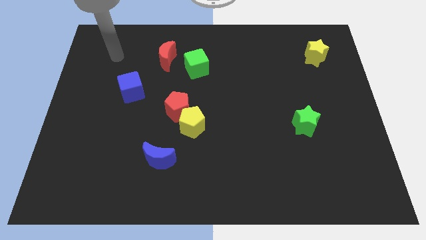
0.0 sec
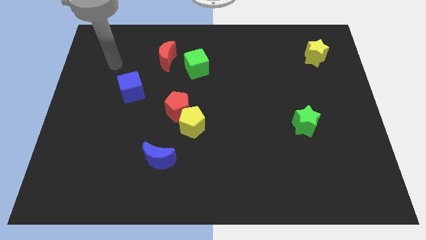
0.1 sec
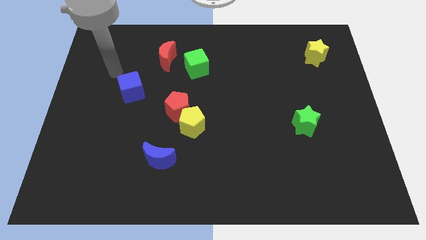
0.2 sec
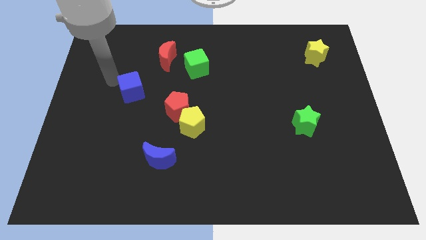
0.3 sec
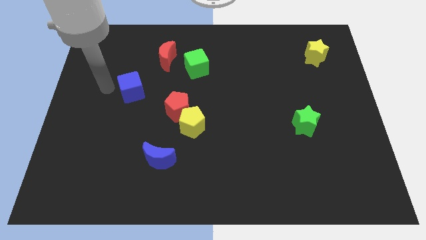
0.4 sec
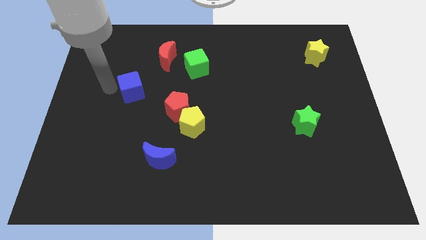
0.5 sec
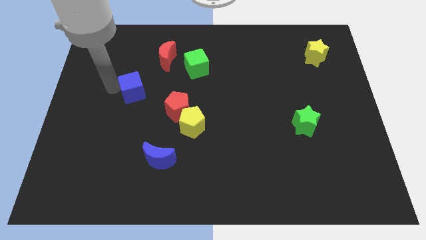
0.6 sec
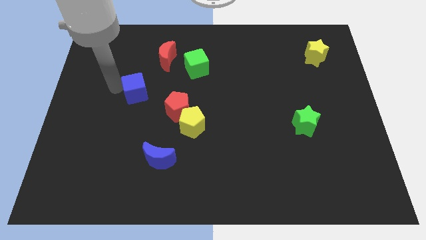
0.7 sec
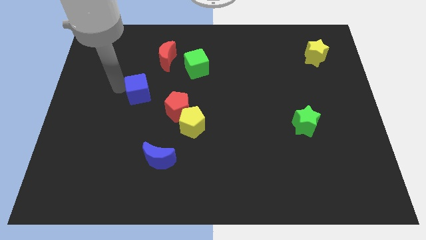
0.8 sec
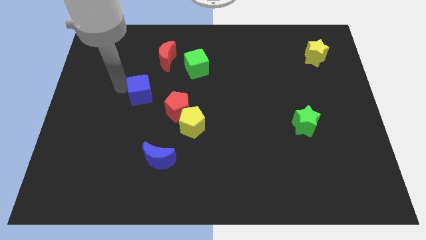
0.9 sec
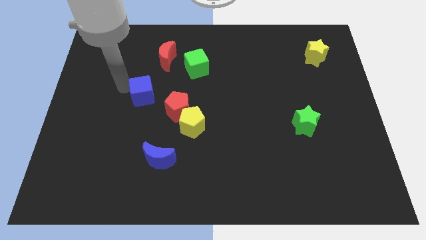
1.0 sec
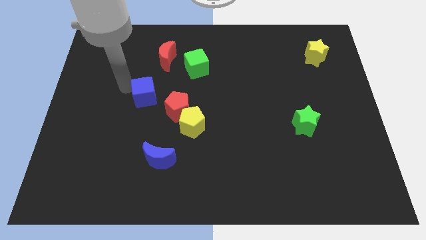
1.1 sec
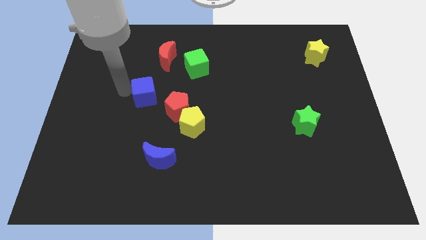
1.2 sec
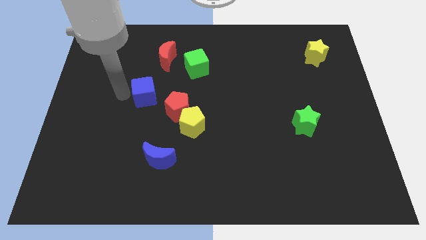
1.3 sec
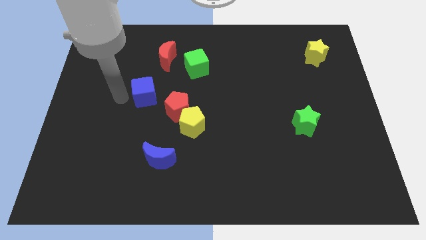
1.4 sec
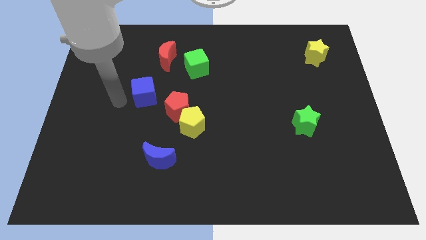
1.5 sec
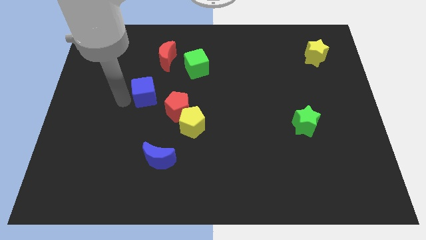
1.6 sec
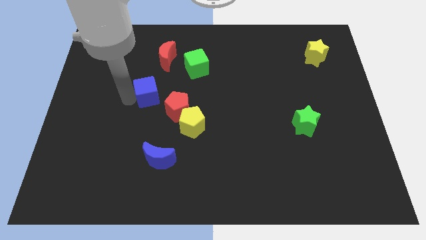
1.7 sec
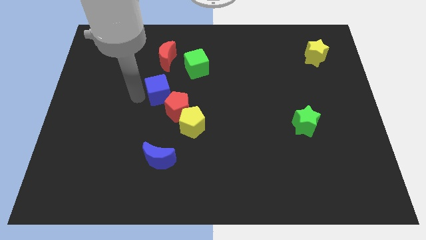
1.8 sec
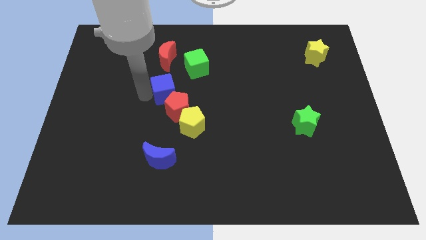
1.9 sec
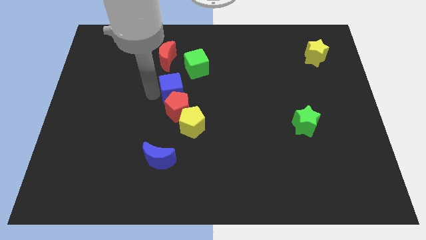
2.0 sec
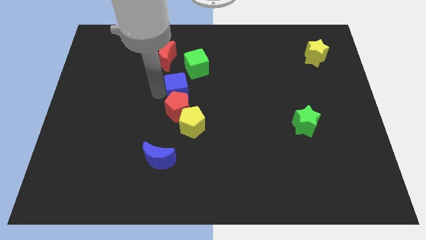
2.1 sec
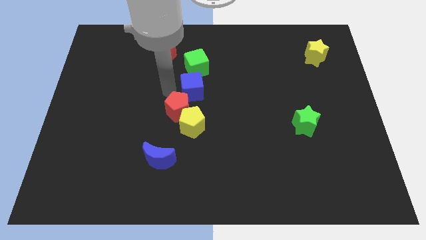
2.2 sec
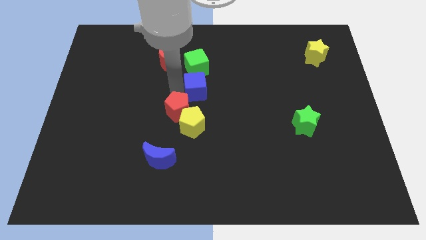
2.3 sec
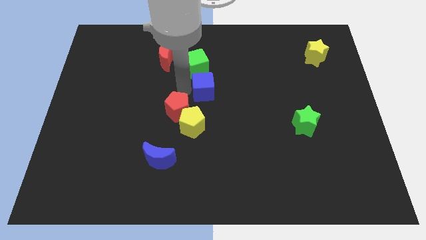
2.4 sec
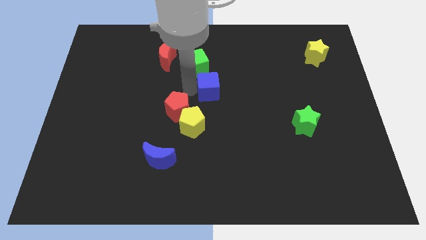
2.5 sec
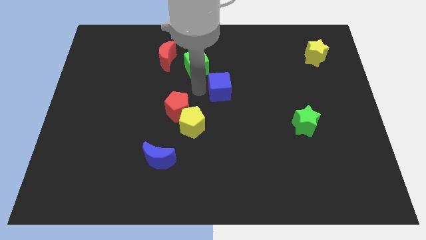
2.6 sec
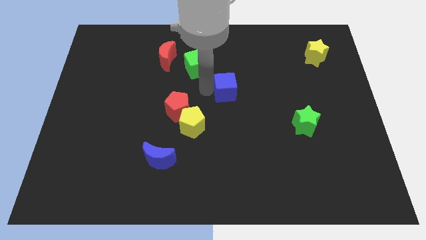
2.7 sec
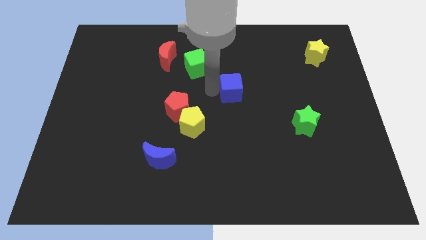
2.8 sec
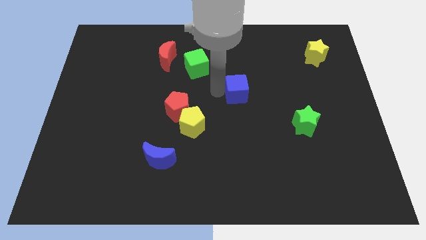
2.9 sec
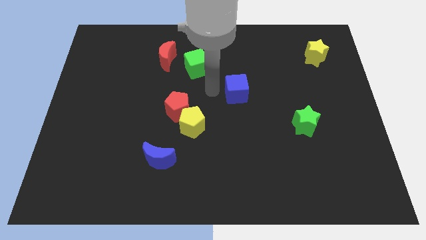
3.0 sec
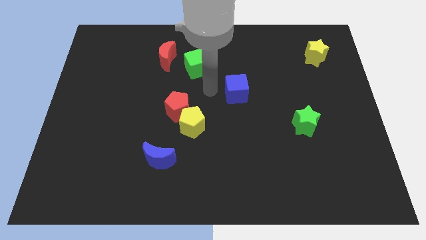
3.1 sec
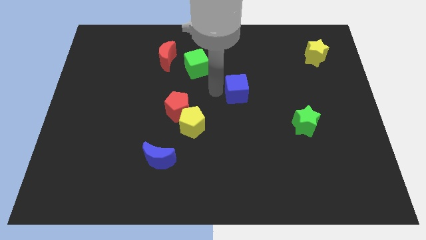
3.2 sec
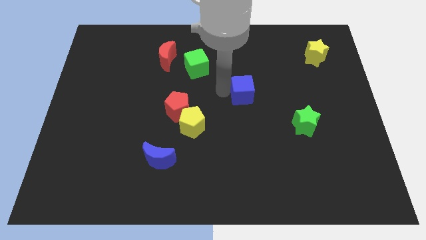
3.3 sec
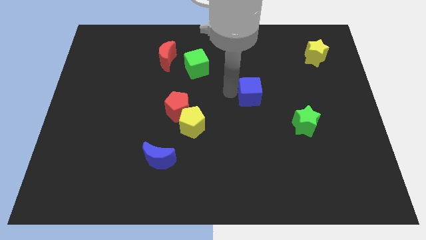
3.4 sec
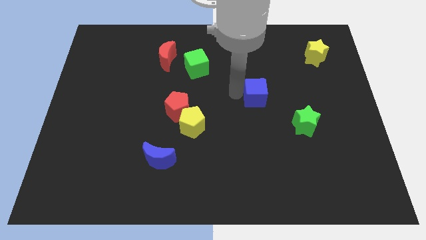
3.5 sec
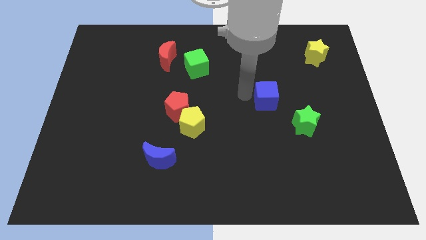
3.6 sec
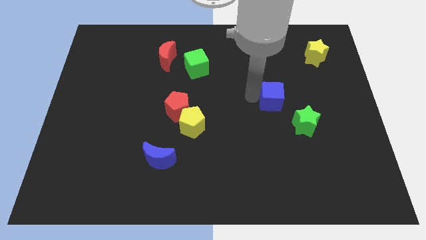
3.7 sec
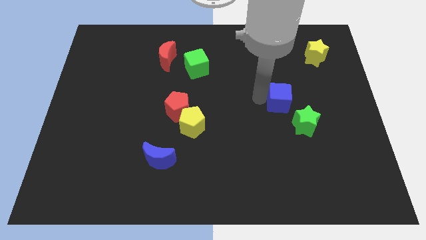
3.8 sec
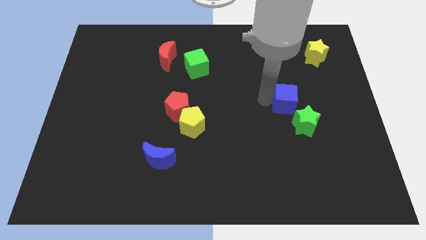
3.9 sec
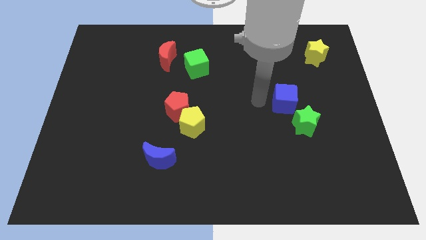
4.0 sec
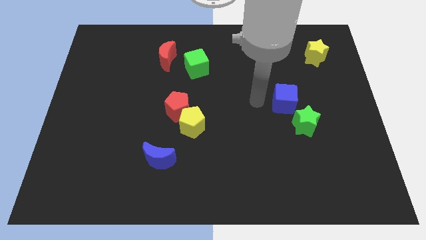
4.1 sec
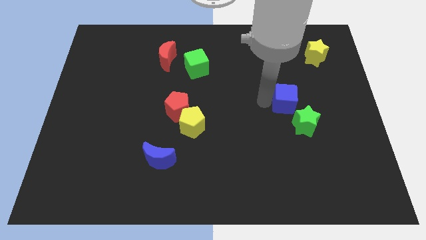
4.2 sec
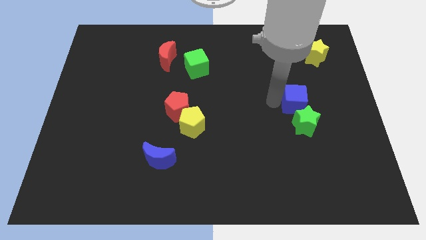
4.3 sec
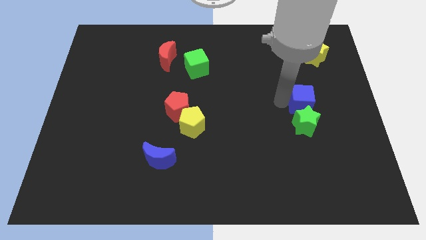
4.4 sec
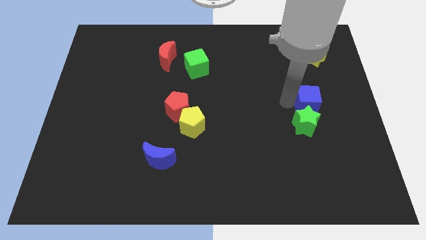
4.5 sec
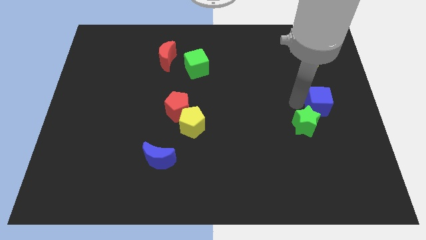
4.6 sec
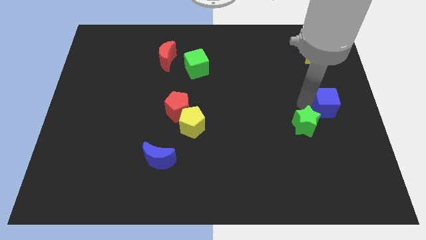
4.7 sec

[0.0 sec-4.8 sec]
push the blue cube to the right side

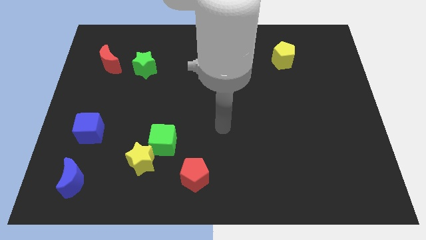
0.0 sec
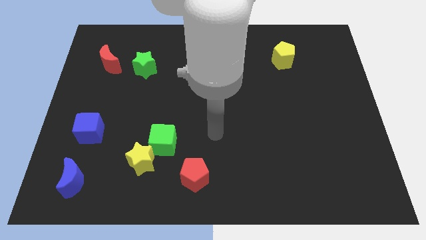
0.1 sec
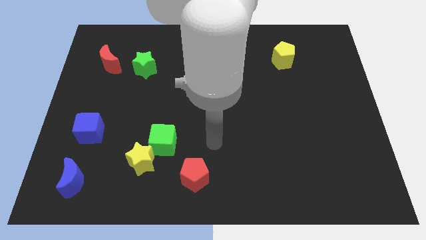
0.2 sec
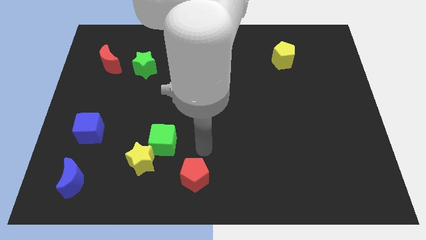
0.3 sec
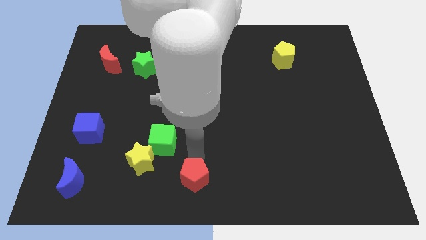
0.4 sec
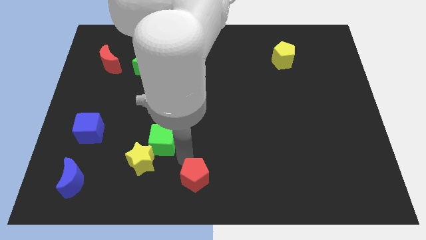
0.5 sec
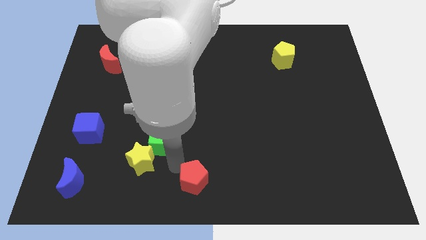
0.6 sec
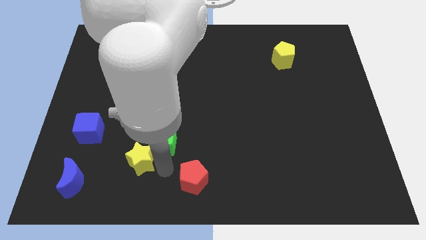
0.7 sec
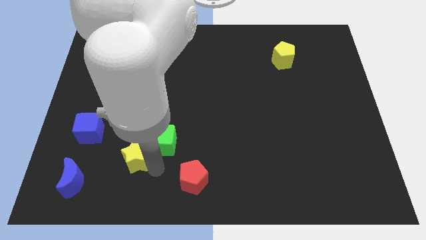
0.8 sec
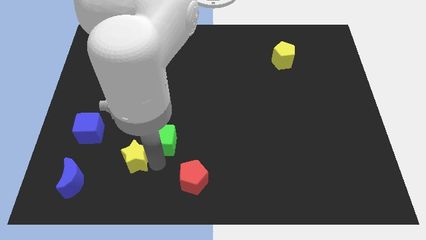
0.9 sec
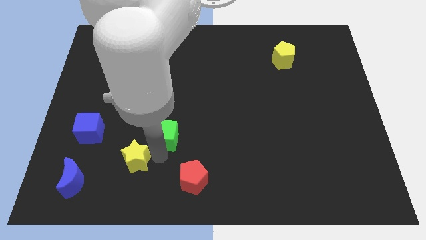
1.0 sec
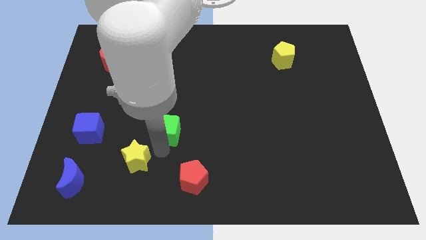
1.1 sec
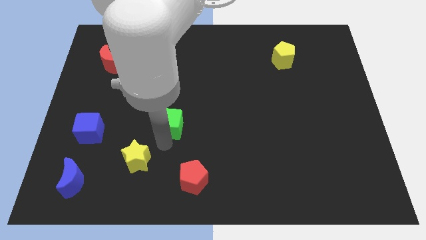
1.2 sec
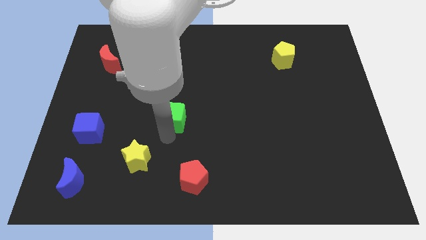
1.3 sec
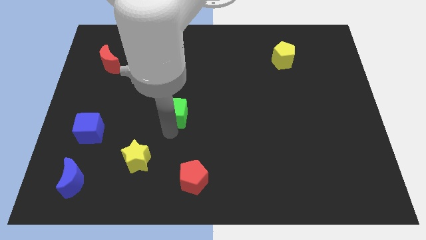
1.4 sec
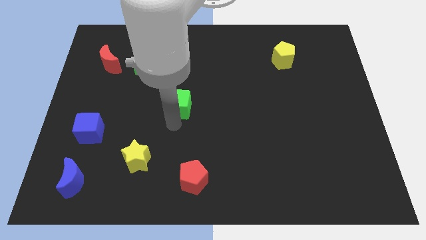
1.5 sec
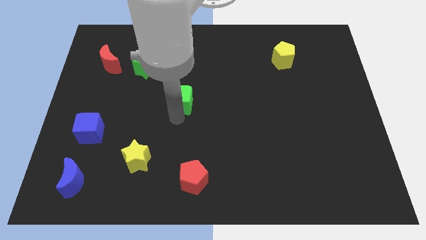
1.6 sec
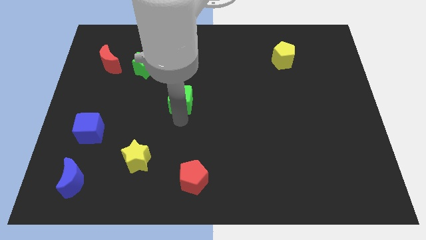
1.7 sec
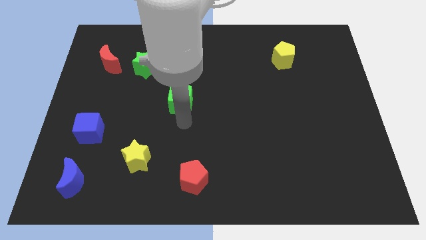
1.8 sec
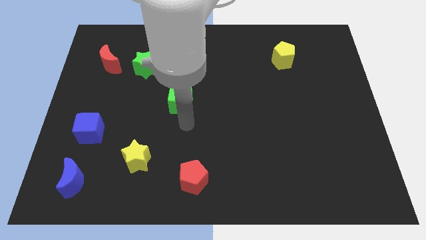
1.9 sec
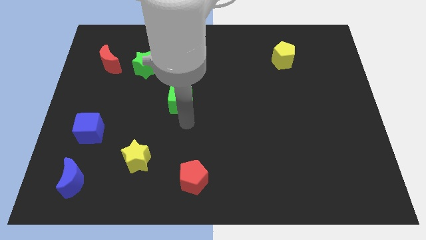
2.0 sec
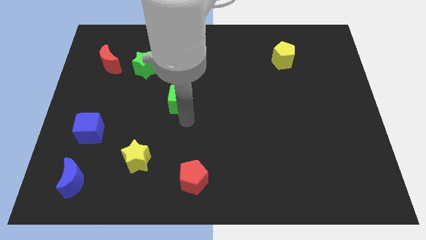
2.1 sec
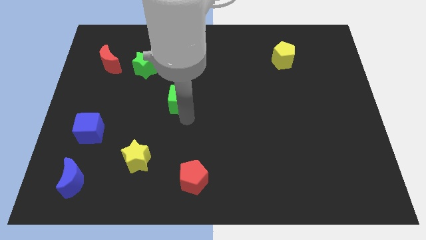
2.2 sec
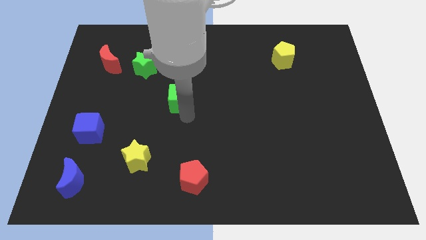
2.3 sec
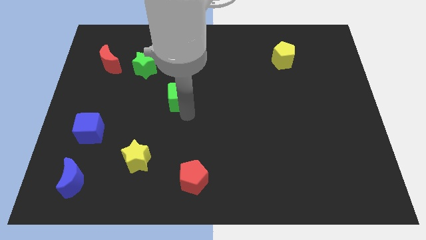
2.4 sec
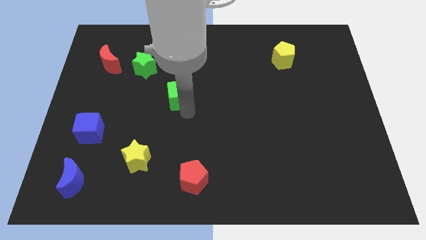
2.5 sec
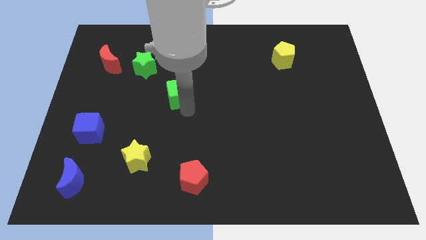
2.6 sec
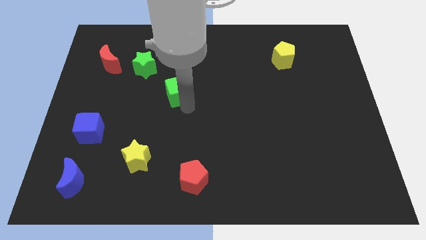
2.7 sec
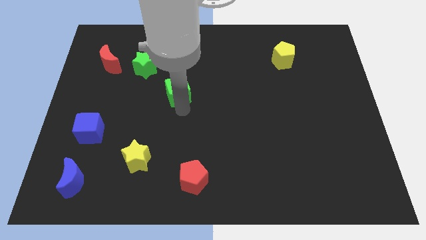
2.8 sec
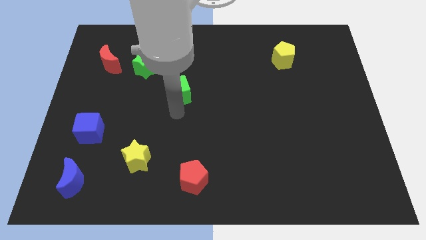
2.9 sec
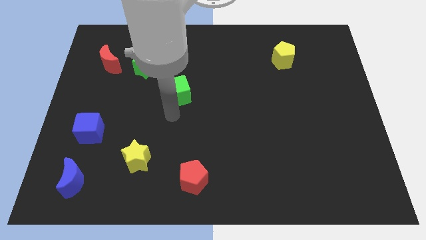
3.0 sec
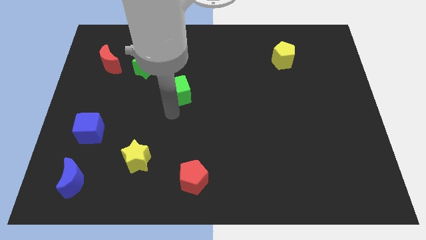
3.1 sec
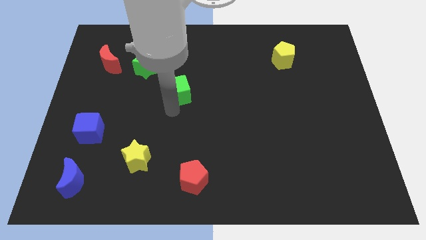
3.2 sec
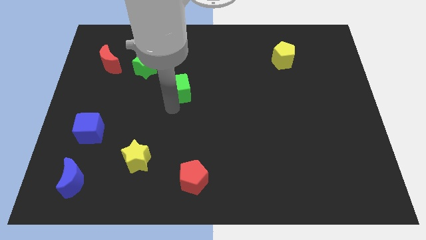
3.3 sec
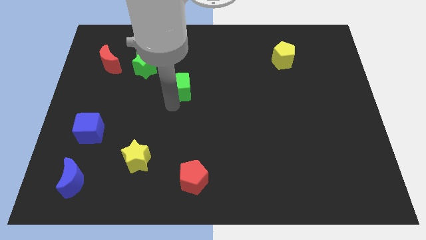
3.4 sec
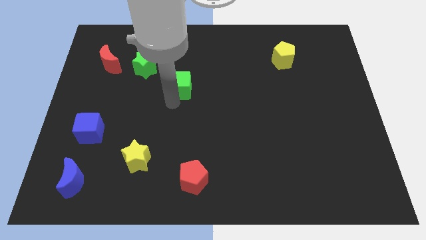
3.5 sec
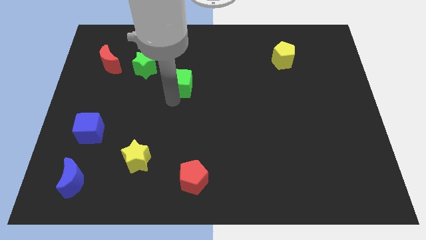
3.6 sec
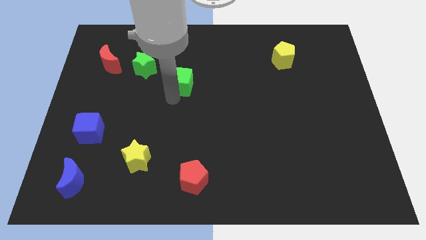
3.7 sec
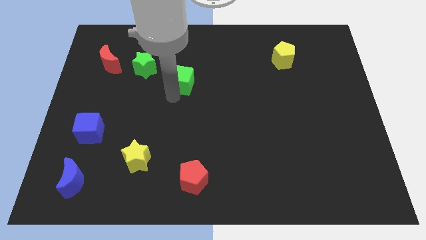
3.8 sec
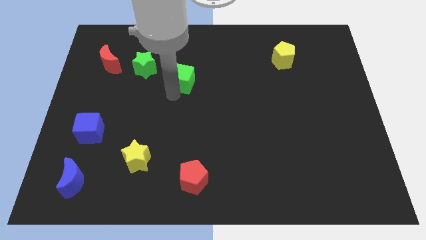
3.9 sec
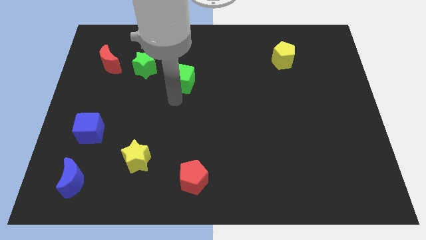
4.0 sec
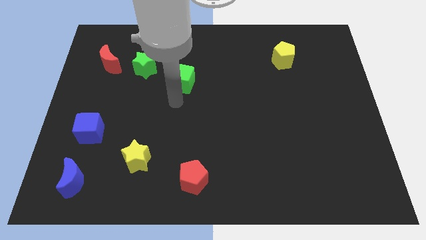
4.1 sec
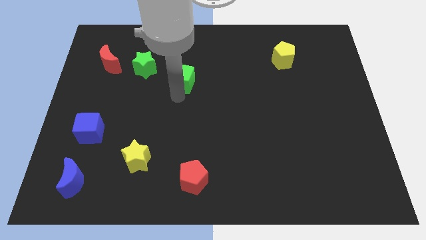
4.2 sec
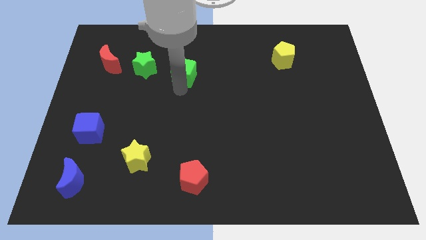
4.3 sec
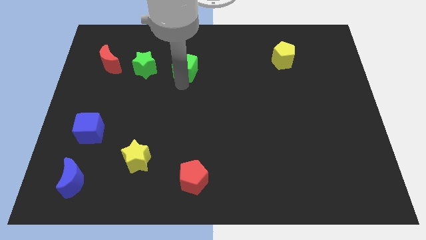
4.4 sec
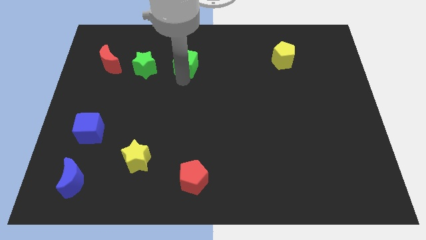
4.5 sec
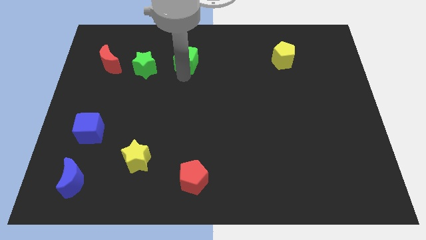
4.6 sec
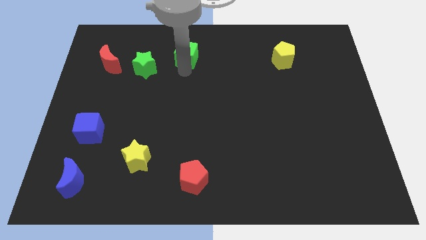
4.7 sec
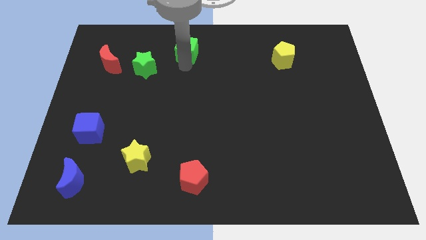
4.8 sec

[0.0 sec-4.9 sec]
push the green cube to the top side
